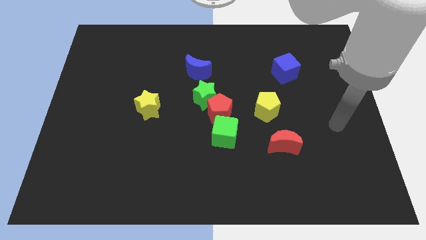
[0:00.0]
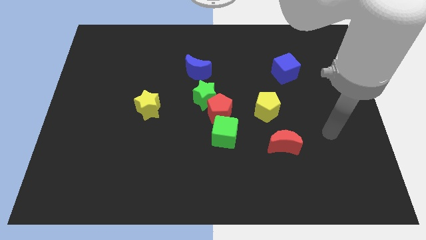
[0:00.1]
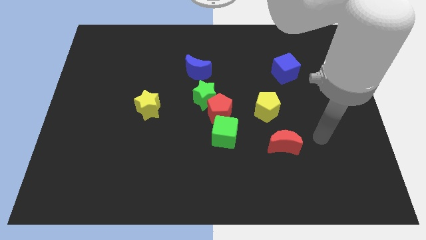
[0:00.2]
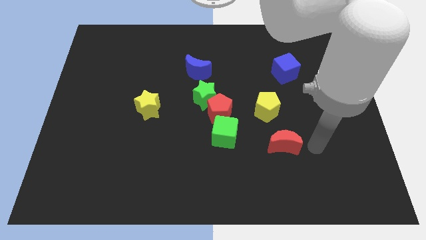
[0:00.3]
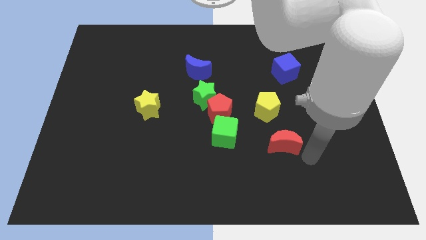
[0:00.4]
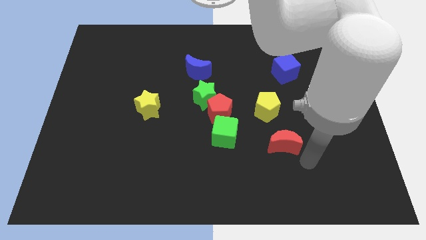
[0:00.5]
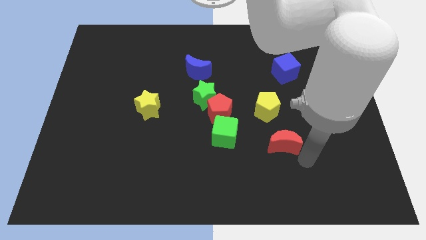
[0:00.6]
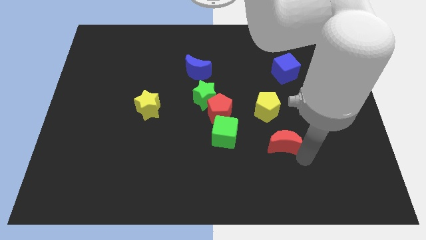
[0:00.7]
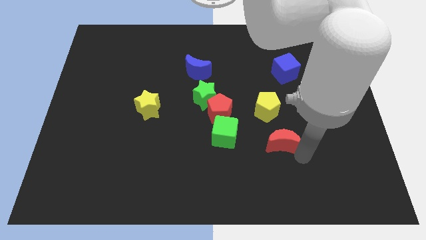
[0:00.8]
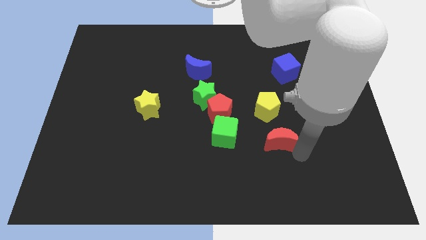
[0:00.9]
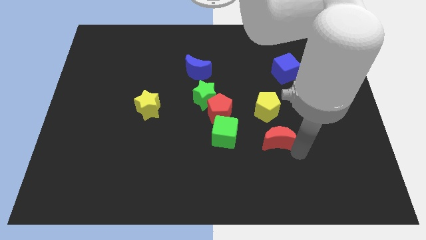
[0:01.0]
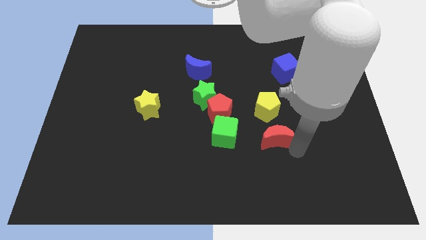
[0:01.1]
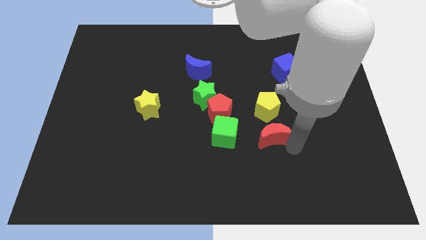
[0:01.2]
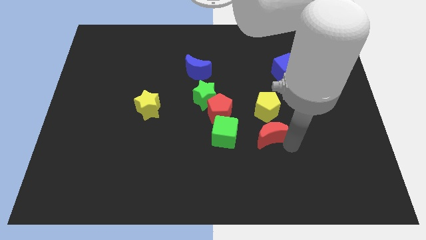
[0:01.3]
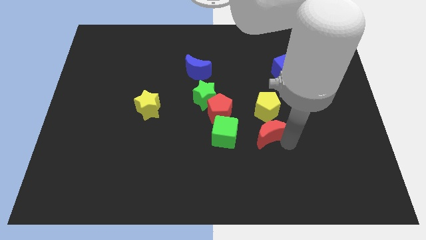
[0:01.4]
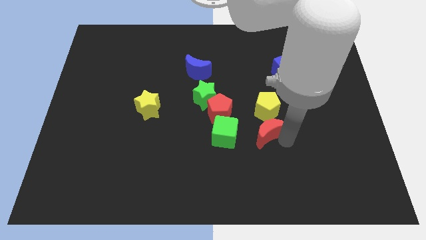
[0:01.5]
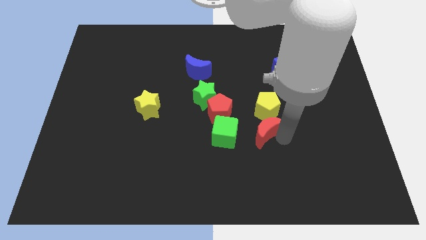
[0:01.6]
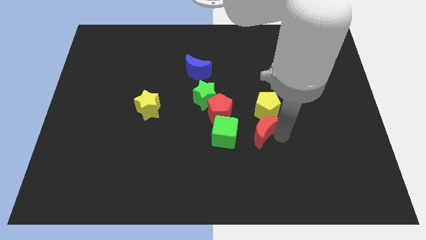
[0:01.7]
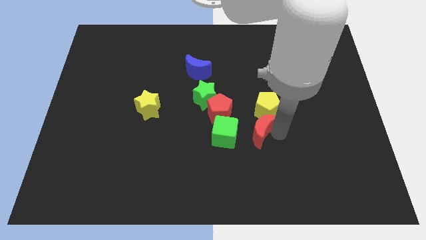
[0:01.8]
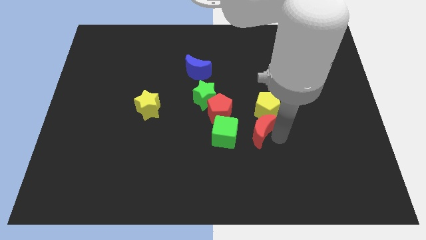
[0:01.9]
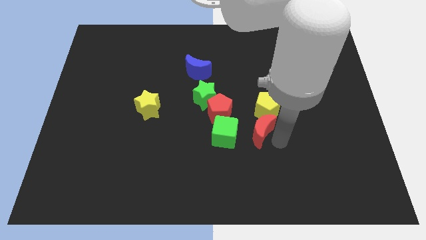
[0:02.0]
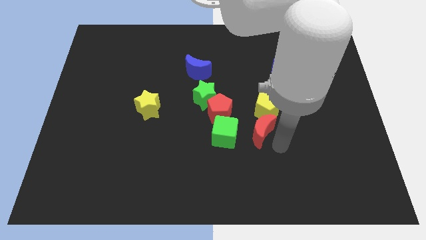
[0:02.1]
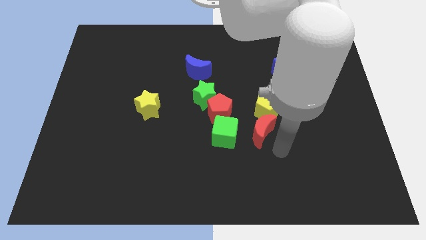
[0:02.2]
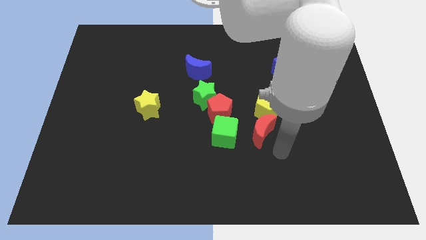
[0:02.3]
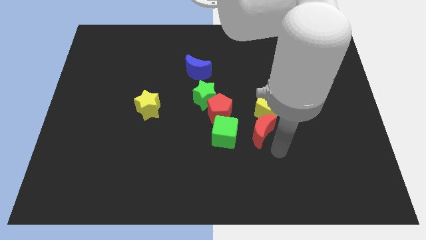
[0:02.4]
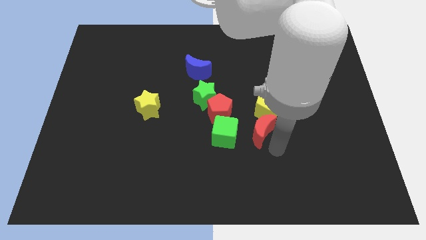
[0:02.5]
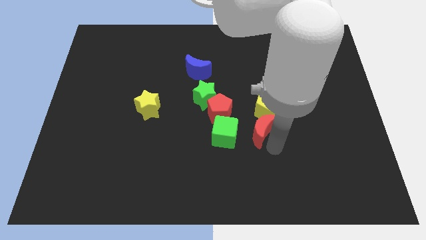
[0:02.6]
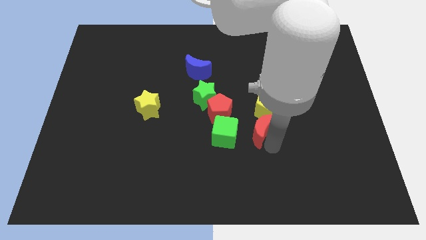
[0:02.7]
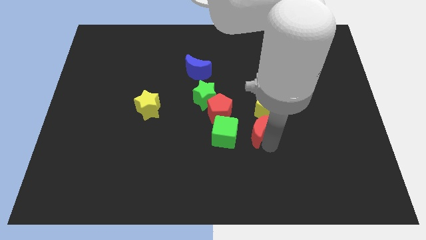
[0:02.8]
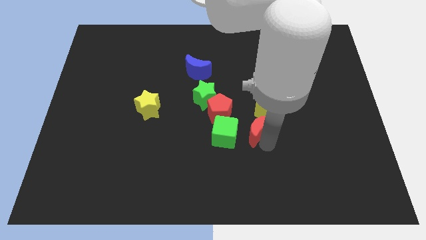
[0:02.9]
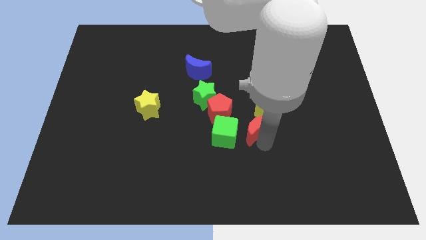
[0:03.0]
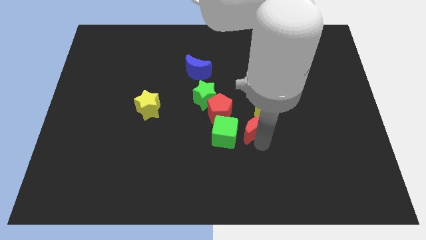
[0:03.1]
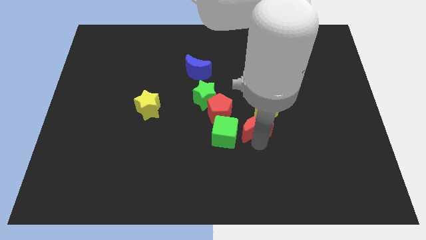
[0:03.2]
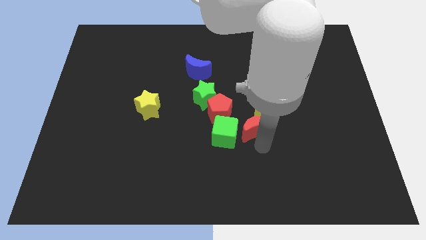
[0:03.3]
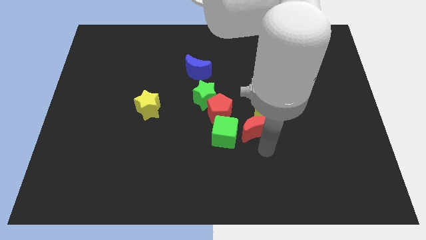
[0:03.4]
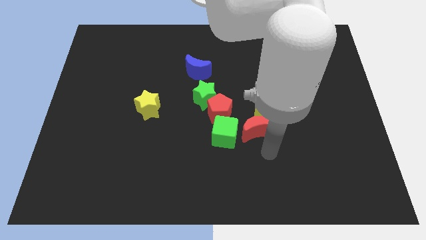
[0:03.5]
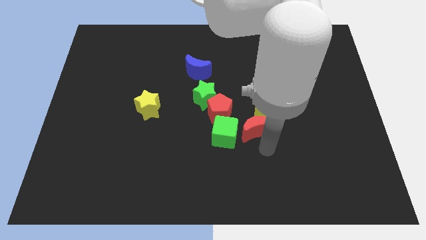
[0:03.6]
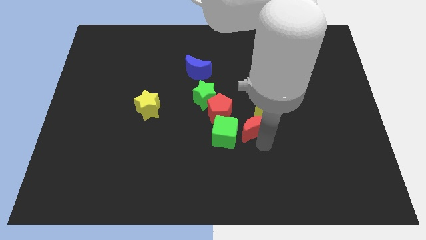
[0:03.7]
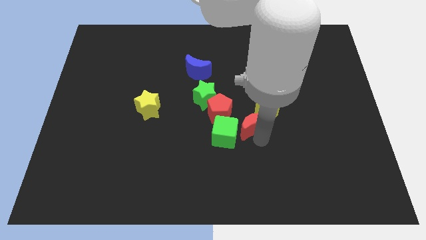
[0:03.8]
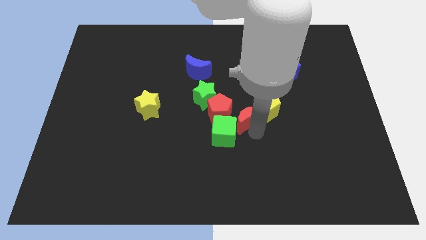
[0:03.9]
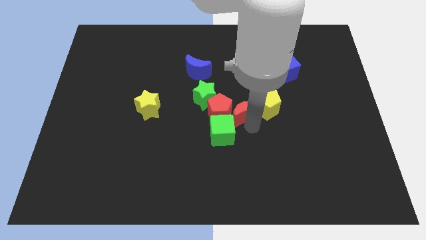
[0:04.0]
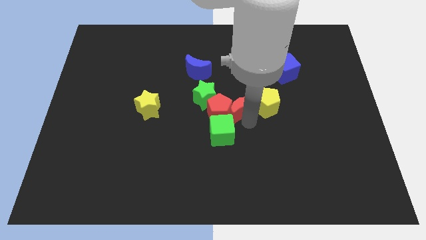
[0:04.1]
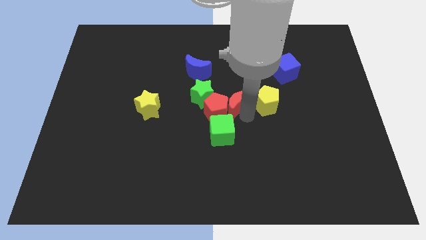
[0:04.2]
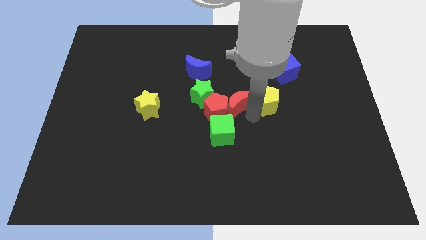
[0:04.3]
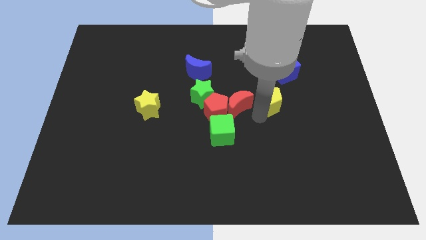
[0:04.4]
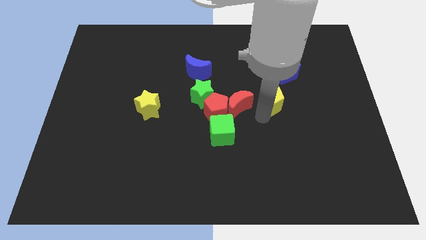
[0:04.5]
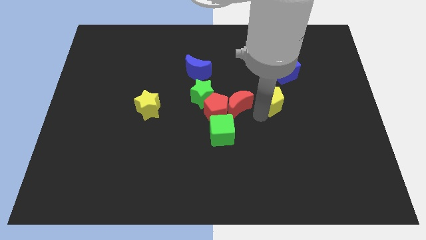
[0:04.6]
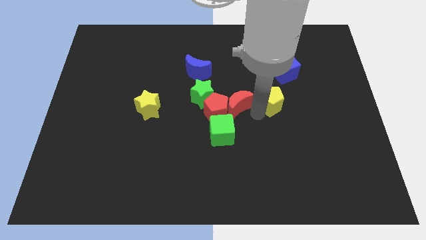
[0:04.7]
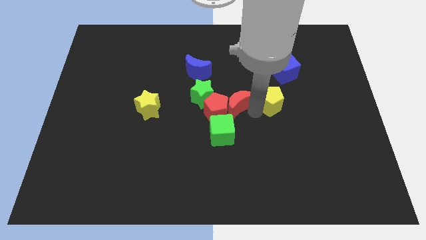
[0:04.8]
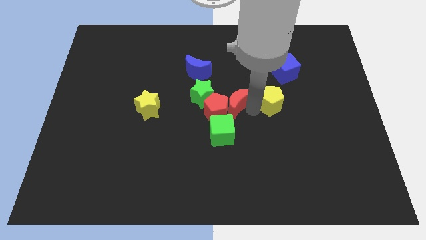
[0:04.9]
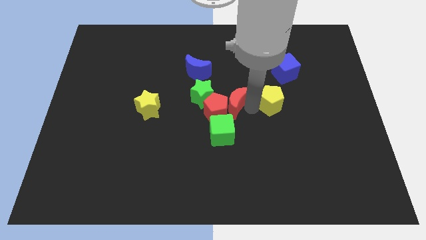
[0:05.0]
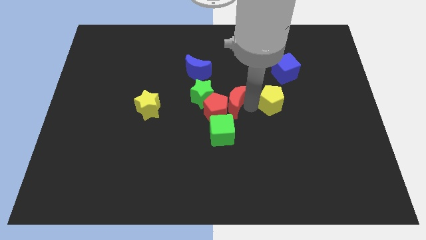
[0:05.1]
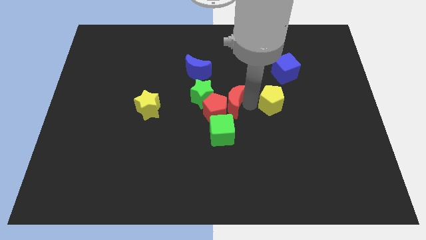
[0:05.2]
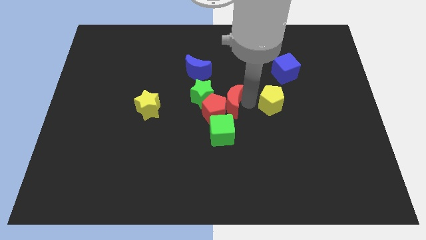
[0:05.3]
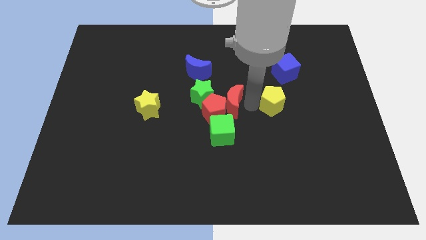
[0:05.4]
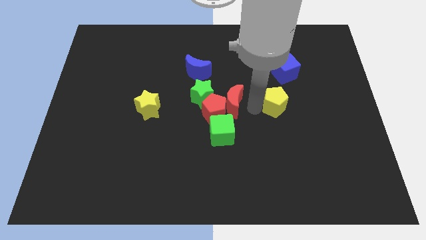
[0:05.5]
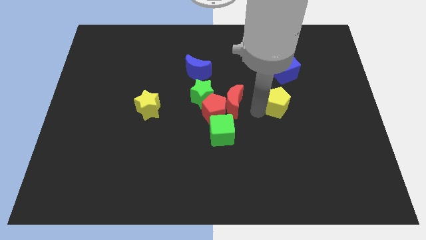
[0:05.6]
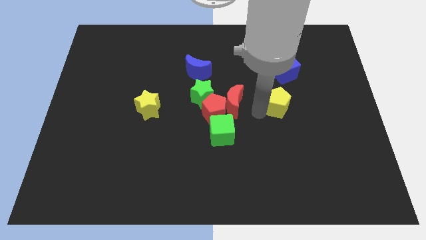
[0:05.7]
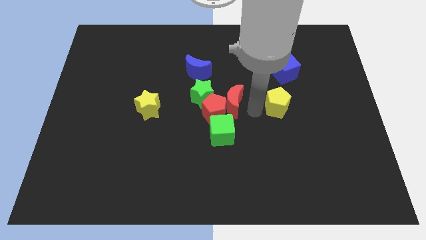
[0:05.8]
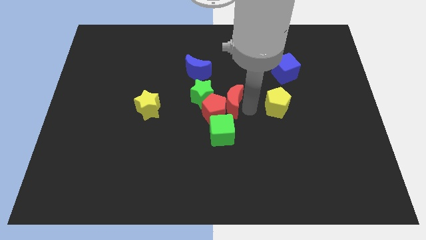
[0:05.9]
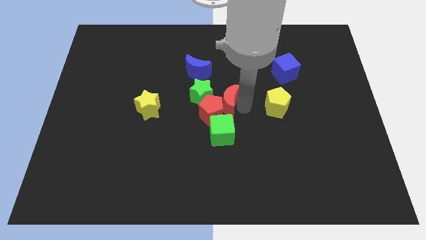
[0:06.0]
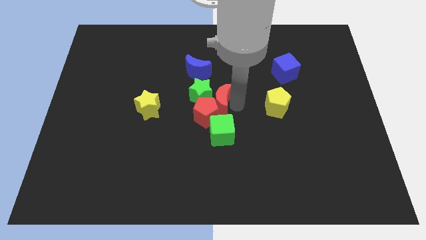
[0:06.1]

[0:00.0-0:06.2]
move the red moon next to the green star

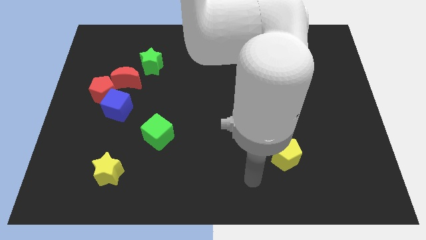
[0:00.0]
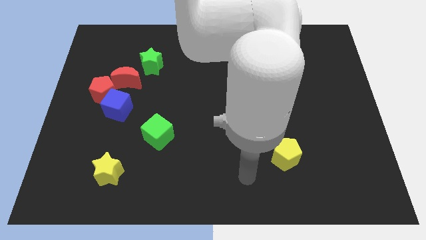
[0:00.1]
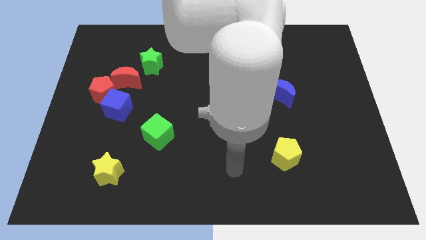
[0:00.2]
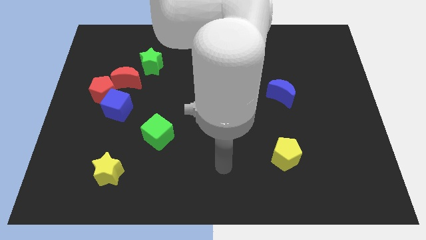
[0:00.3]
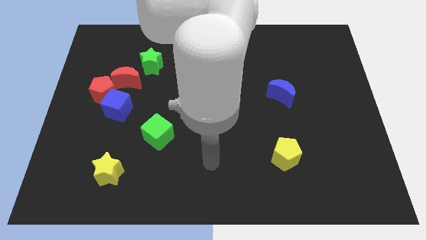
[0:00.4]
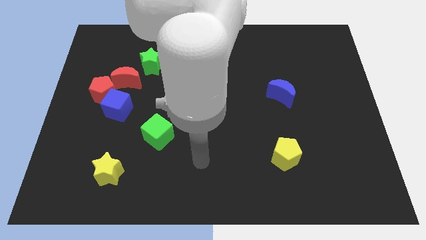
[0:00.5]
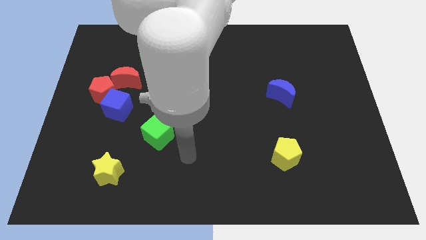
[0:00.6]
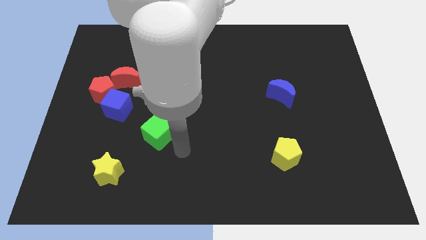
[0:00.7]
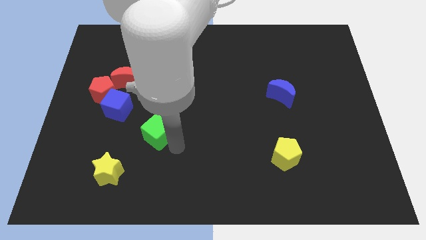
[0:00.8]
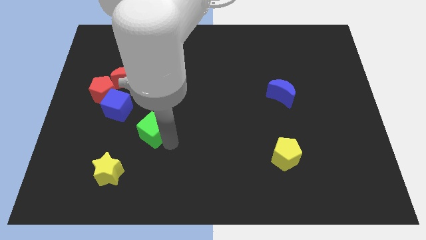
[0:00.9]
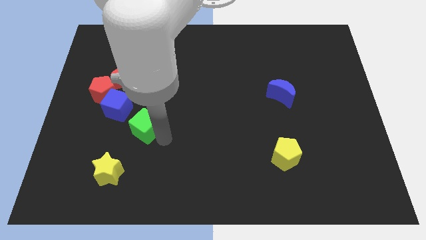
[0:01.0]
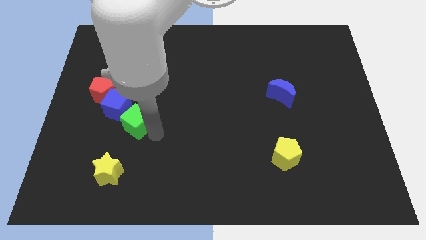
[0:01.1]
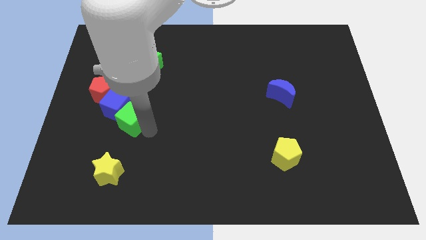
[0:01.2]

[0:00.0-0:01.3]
put the green cube close to the blue cube
